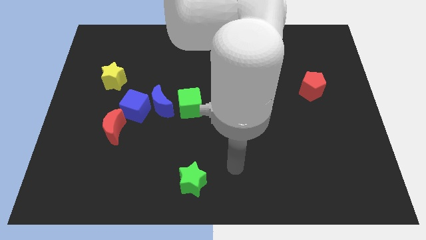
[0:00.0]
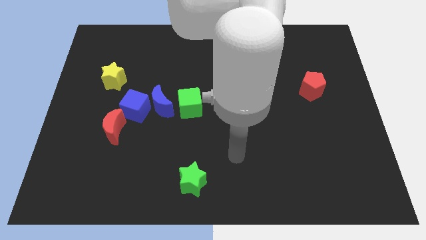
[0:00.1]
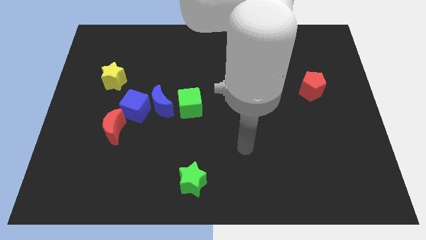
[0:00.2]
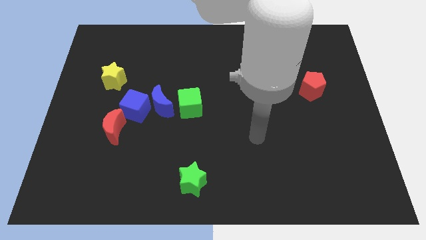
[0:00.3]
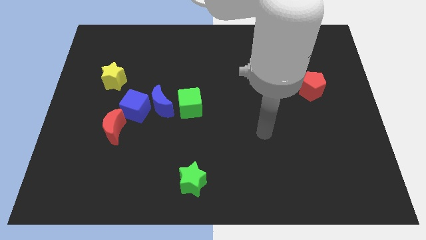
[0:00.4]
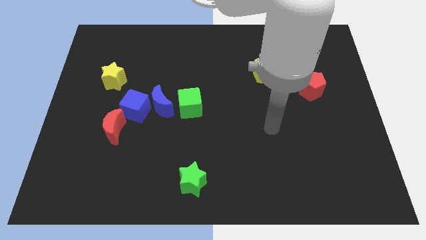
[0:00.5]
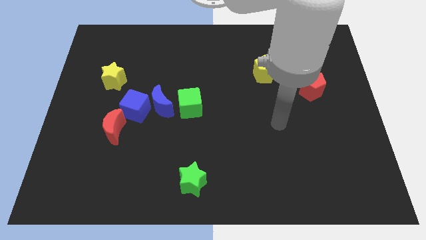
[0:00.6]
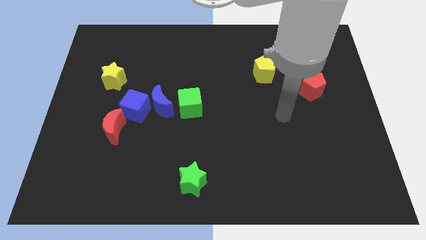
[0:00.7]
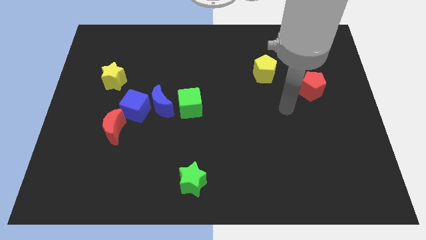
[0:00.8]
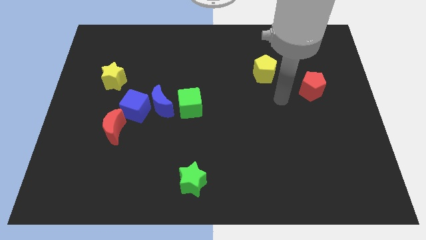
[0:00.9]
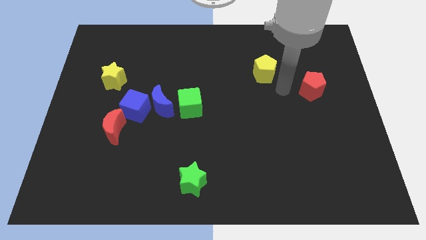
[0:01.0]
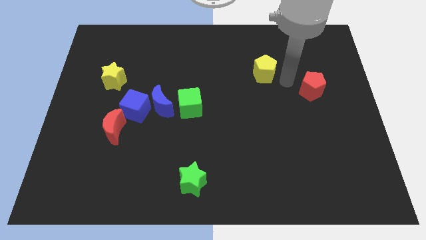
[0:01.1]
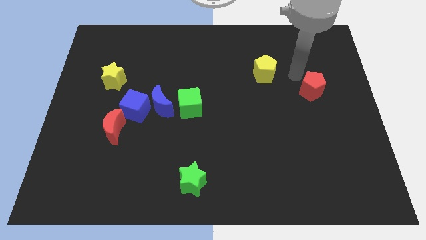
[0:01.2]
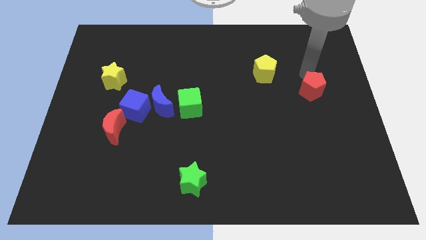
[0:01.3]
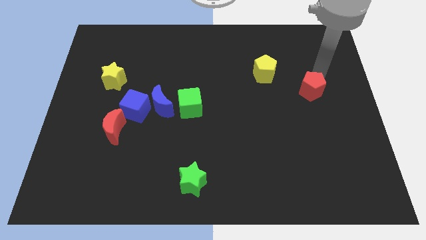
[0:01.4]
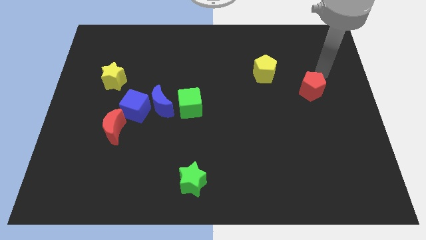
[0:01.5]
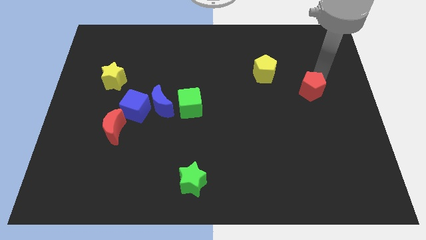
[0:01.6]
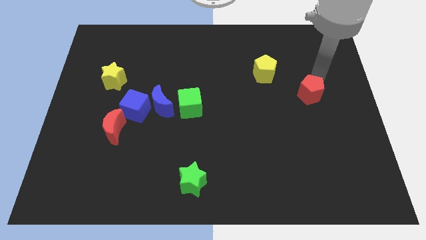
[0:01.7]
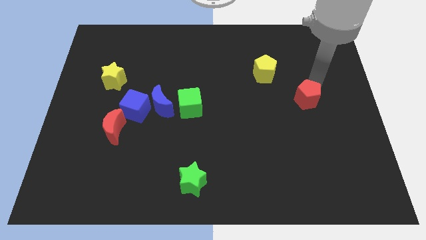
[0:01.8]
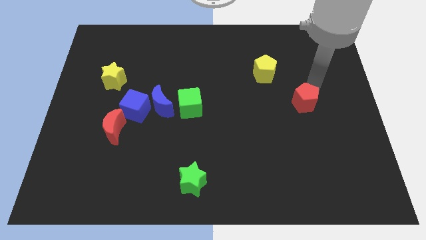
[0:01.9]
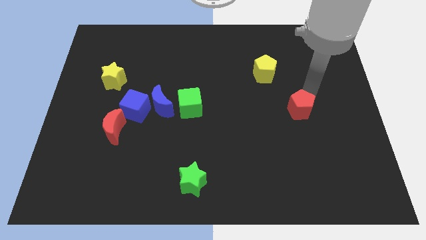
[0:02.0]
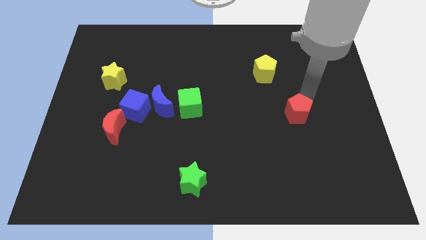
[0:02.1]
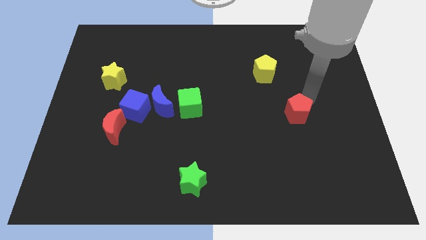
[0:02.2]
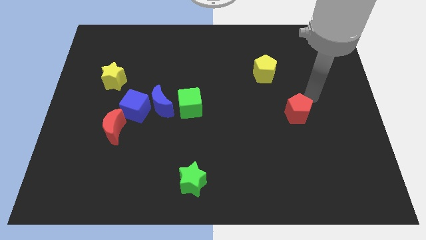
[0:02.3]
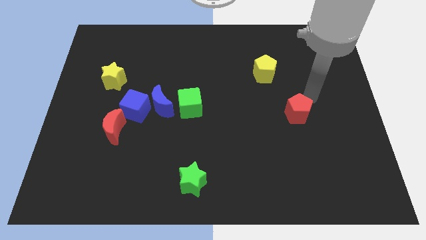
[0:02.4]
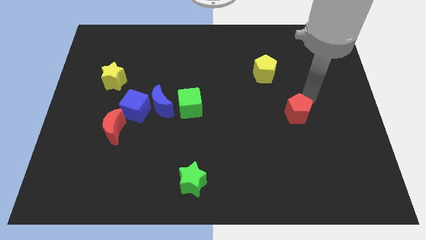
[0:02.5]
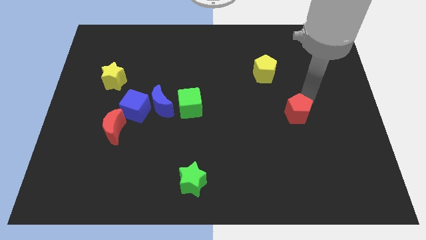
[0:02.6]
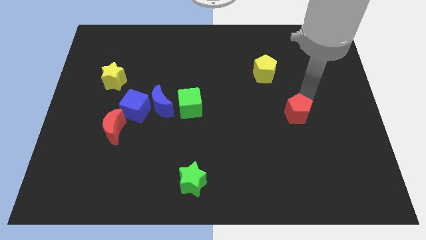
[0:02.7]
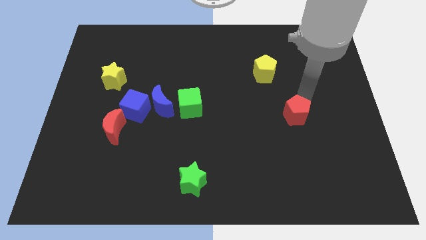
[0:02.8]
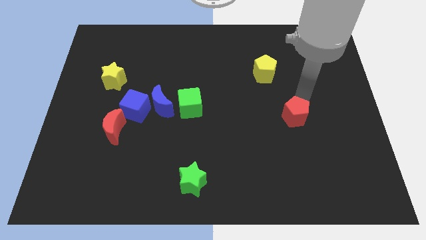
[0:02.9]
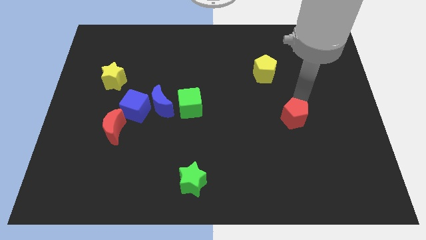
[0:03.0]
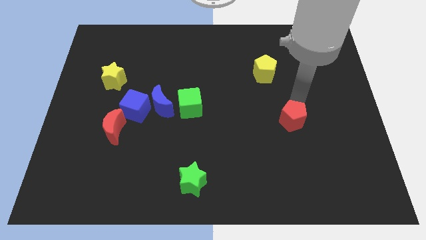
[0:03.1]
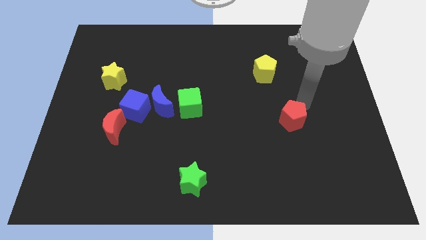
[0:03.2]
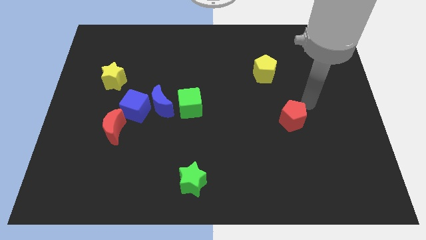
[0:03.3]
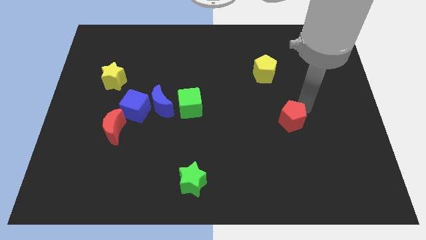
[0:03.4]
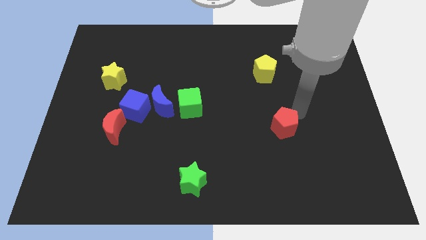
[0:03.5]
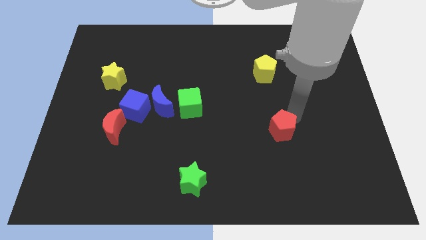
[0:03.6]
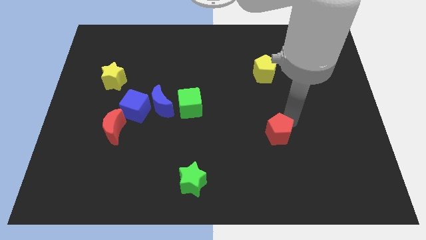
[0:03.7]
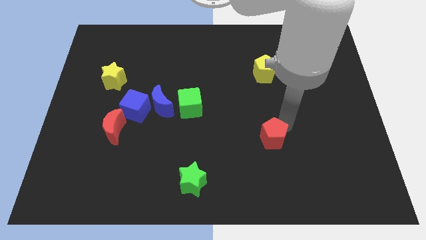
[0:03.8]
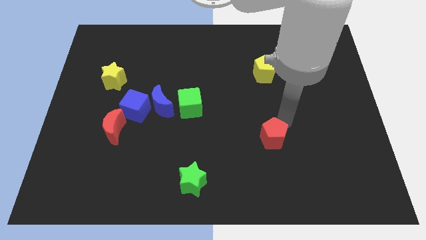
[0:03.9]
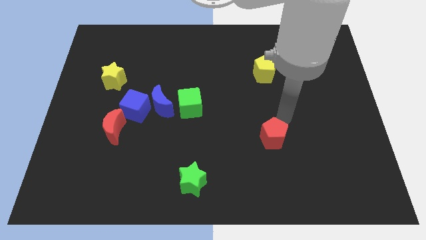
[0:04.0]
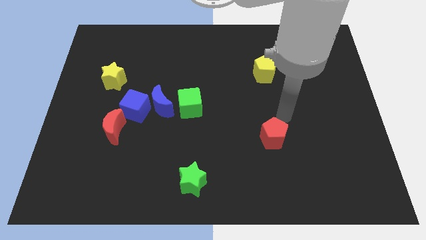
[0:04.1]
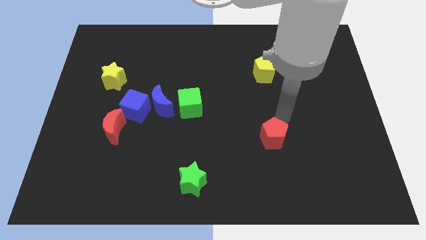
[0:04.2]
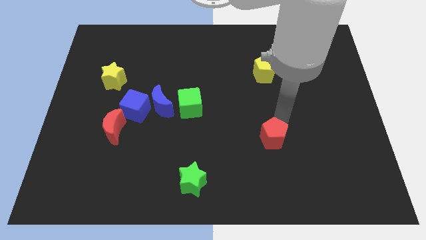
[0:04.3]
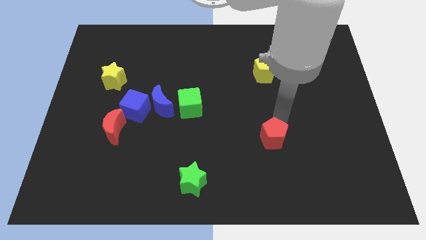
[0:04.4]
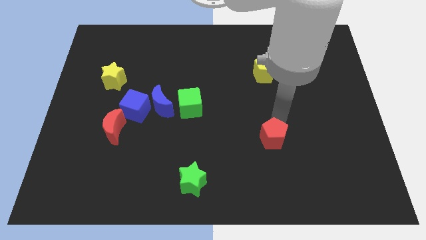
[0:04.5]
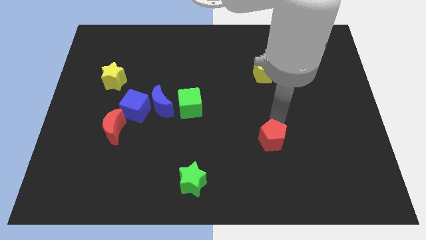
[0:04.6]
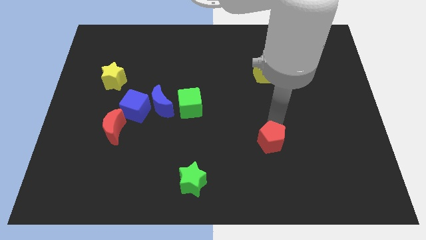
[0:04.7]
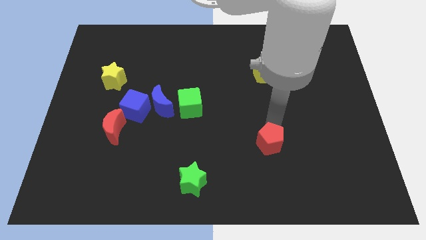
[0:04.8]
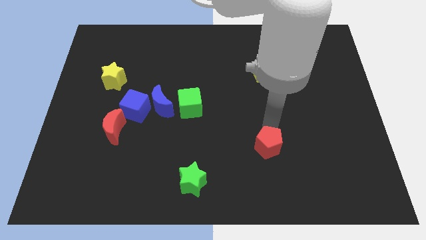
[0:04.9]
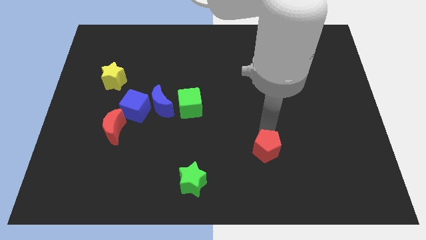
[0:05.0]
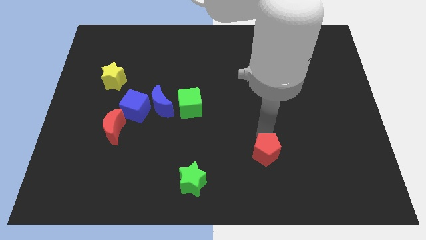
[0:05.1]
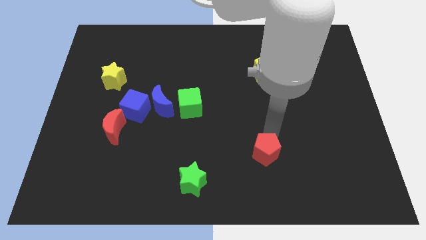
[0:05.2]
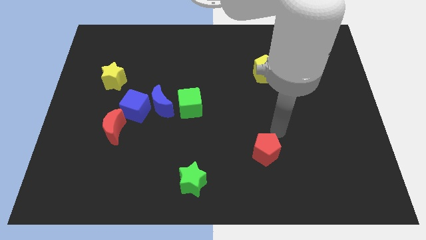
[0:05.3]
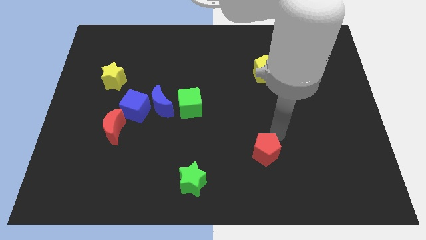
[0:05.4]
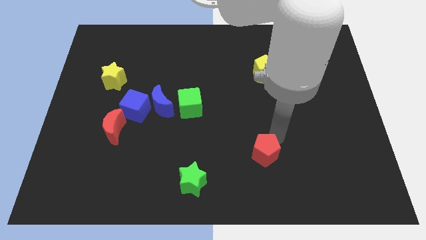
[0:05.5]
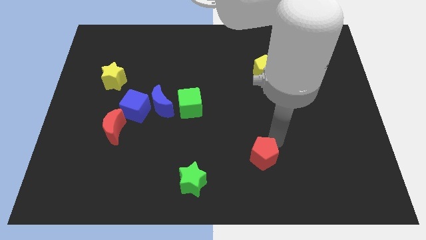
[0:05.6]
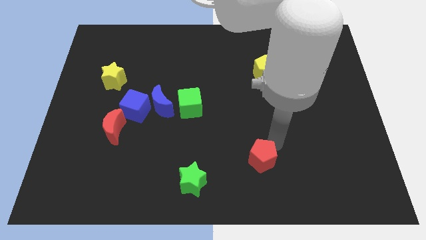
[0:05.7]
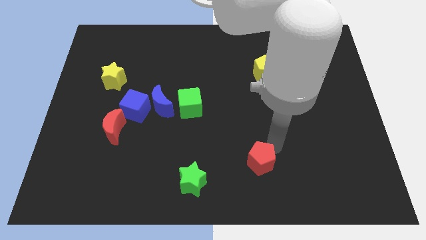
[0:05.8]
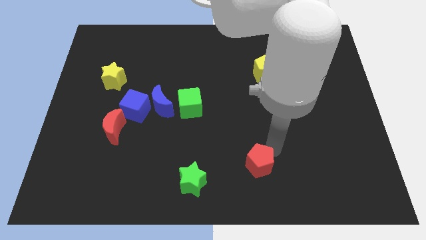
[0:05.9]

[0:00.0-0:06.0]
slide the red pentagon right of the green star

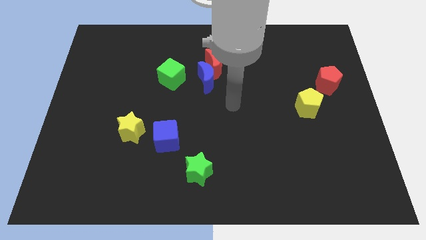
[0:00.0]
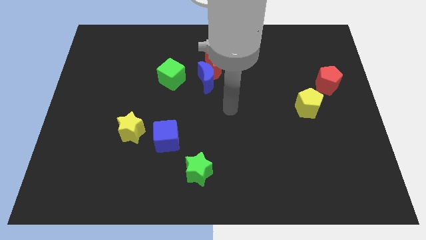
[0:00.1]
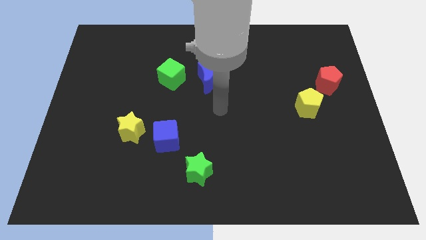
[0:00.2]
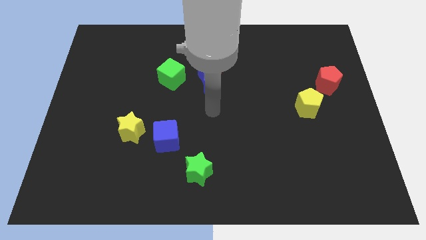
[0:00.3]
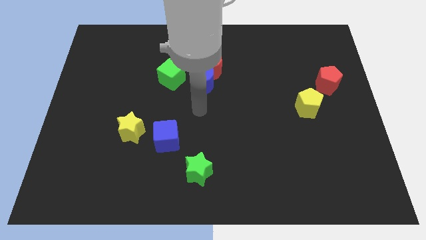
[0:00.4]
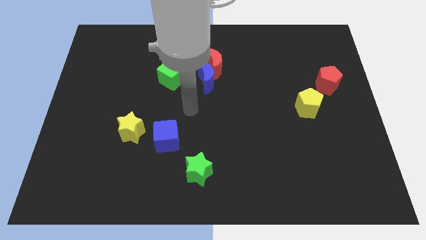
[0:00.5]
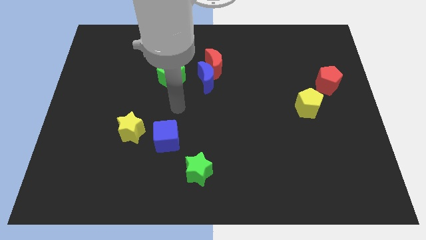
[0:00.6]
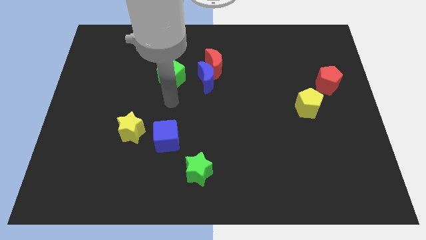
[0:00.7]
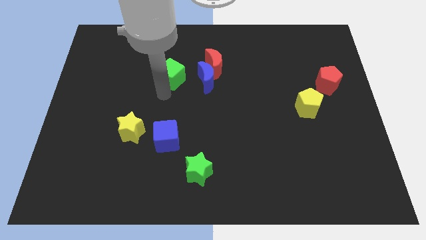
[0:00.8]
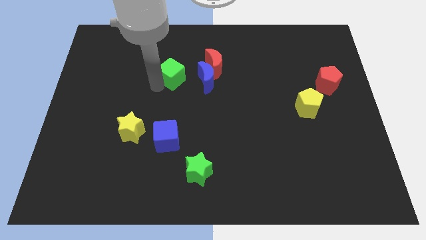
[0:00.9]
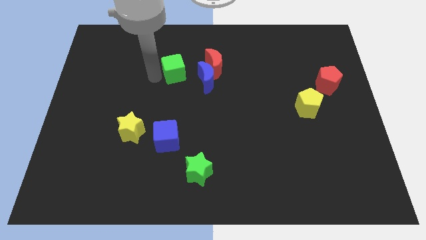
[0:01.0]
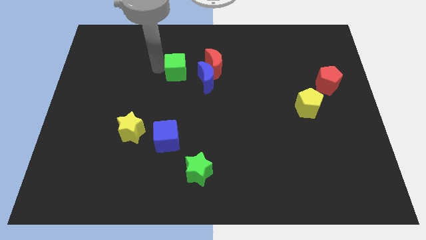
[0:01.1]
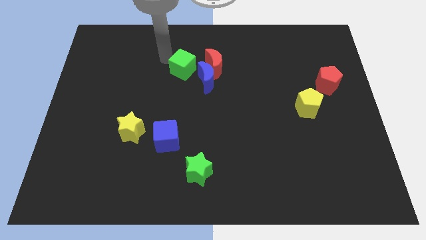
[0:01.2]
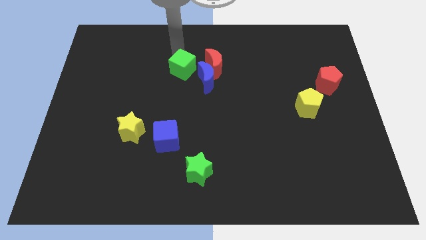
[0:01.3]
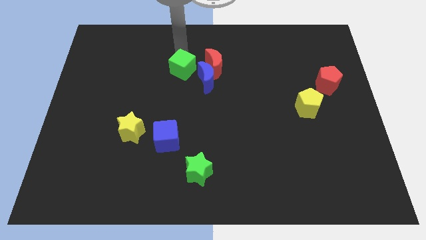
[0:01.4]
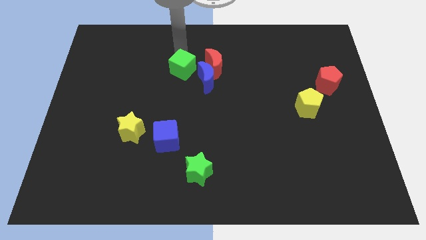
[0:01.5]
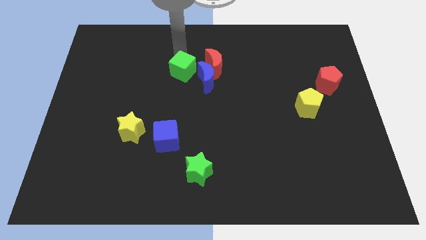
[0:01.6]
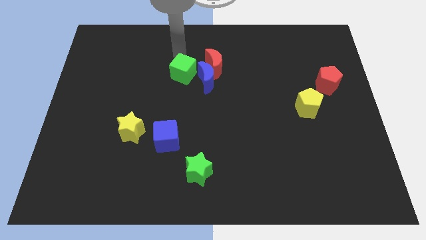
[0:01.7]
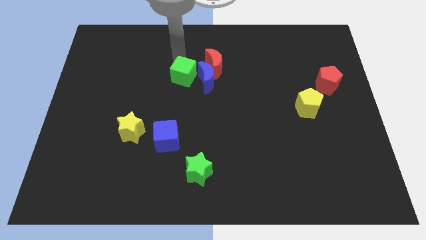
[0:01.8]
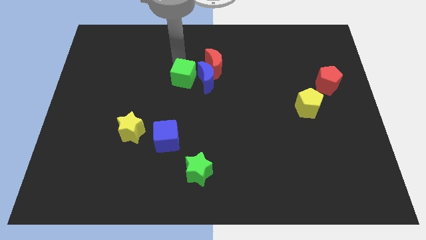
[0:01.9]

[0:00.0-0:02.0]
put the green cube diagonally down and to the left of the blue moon
